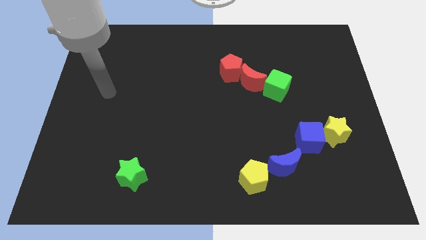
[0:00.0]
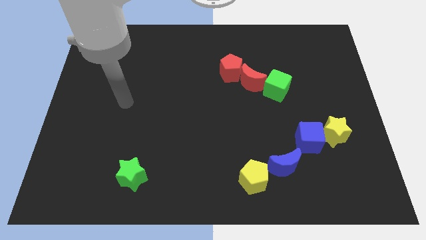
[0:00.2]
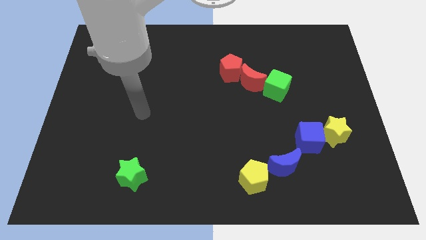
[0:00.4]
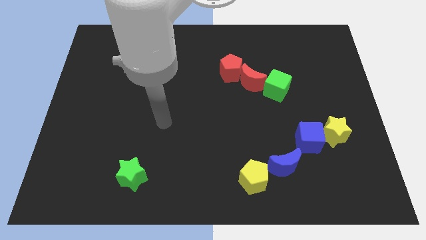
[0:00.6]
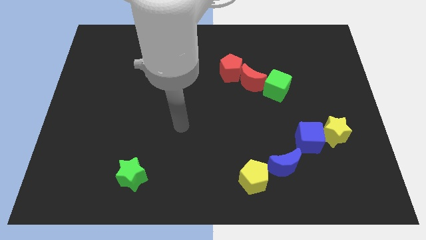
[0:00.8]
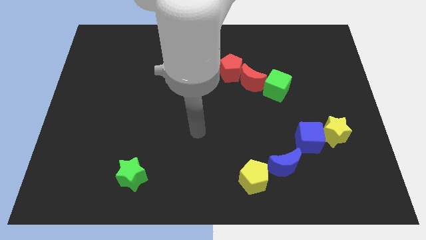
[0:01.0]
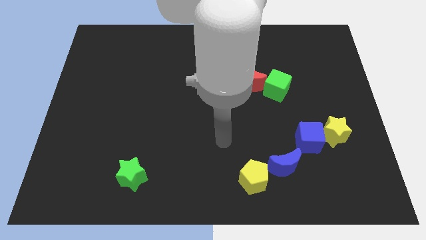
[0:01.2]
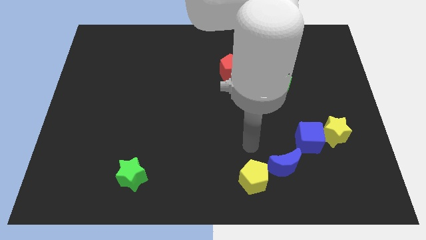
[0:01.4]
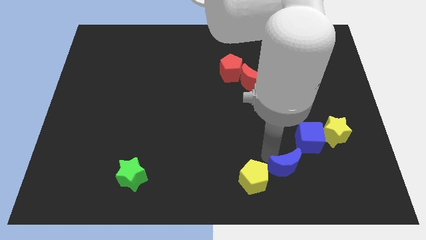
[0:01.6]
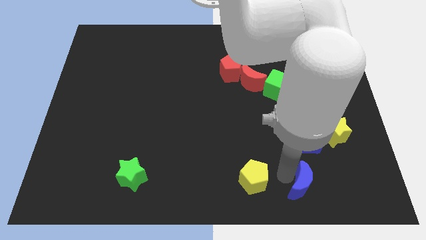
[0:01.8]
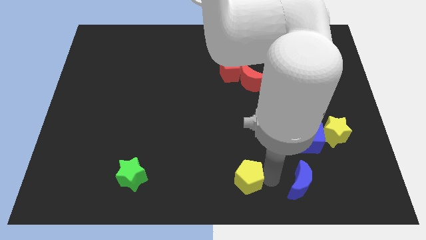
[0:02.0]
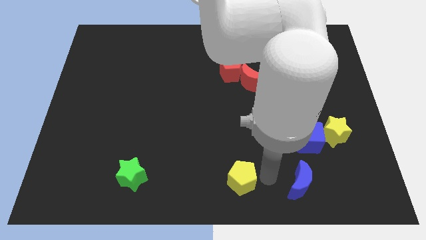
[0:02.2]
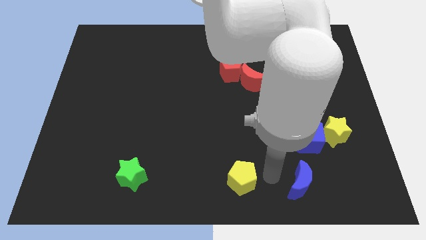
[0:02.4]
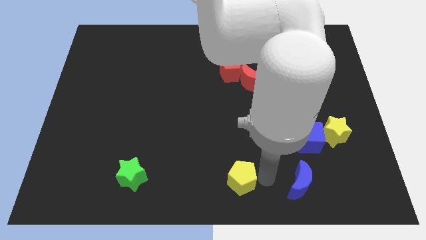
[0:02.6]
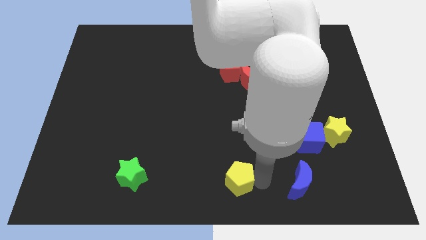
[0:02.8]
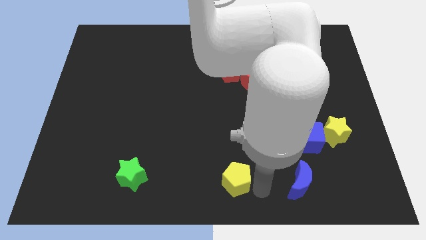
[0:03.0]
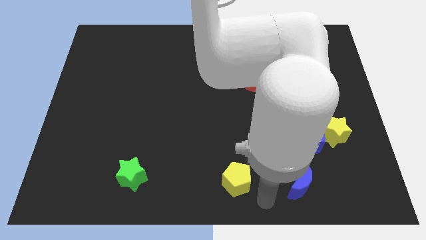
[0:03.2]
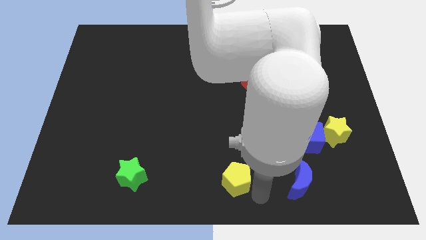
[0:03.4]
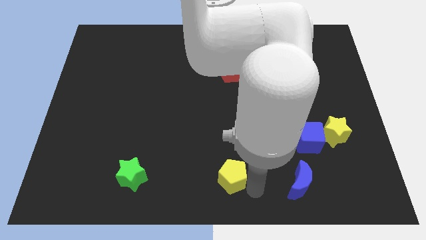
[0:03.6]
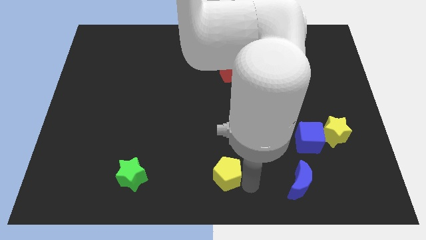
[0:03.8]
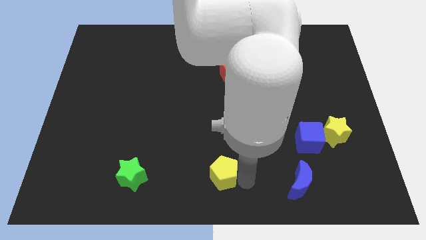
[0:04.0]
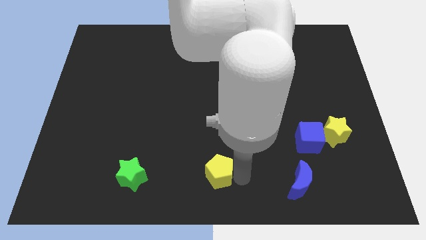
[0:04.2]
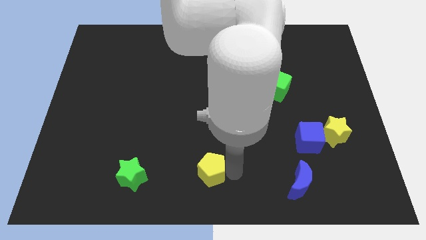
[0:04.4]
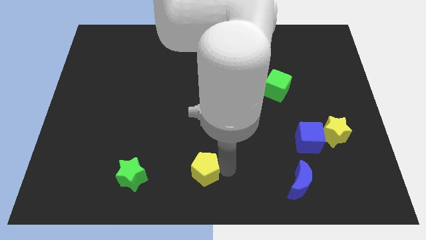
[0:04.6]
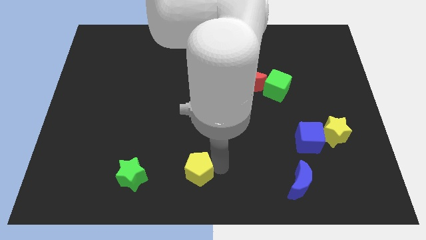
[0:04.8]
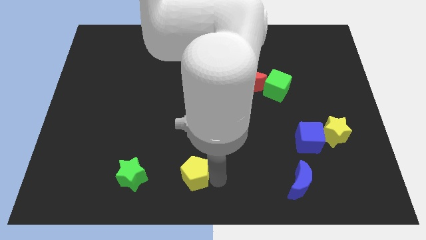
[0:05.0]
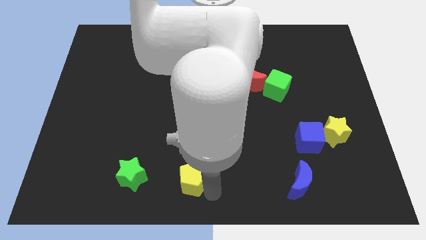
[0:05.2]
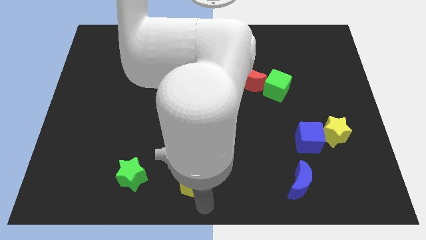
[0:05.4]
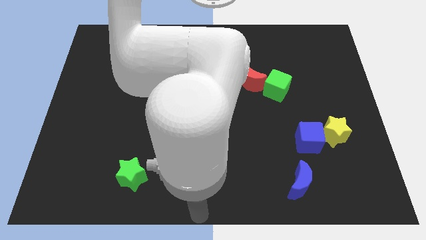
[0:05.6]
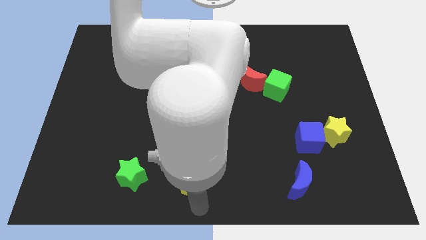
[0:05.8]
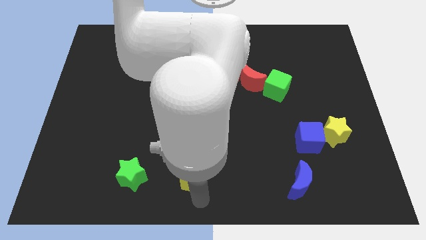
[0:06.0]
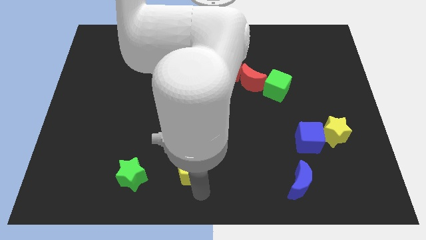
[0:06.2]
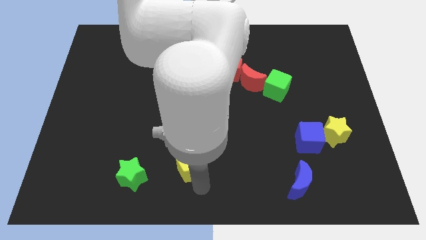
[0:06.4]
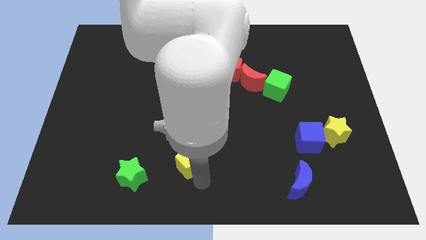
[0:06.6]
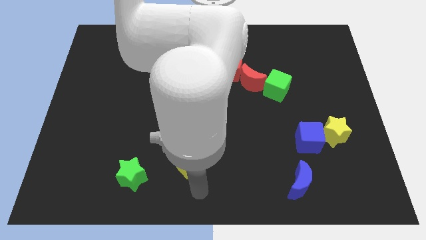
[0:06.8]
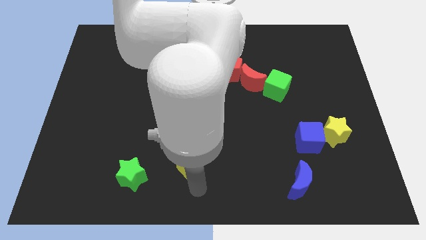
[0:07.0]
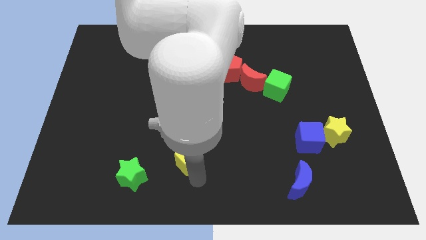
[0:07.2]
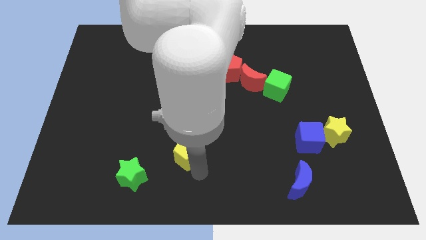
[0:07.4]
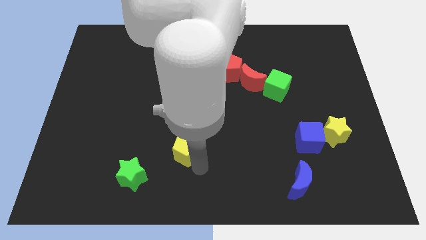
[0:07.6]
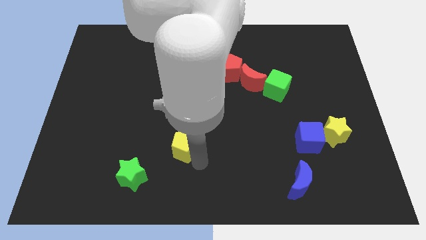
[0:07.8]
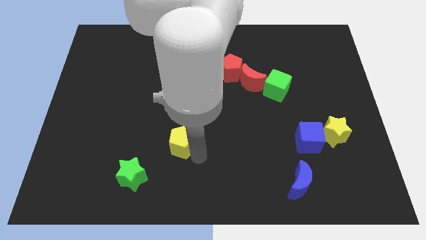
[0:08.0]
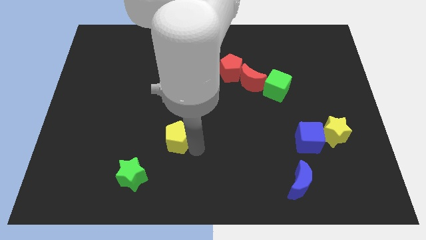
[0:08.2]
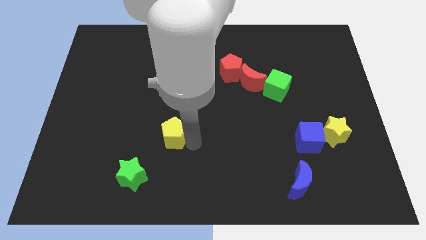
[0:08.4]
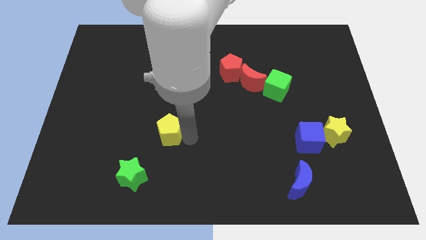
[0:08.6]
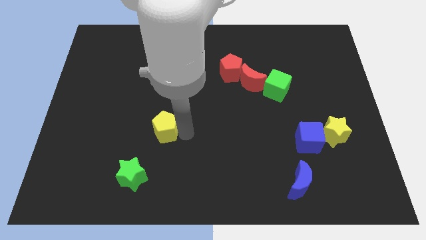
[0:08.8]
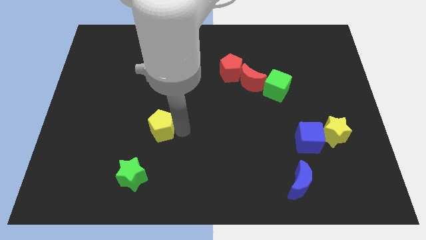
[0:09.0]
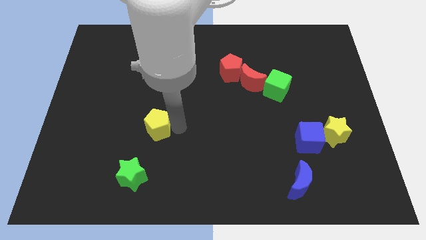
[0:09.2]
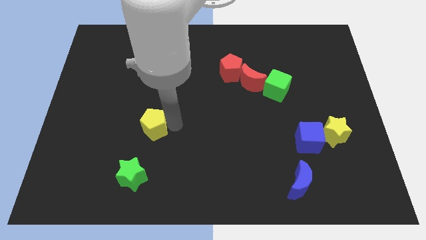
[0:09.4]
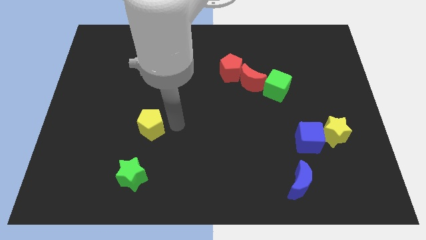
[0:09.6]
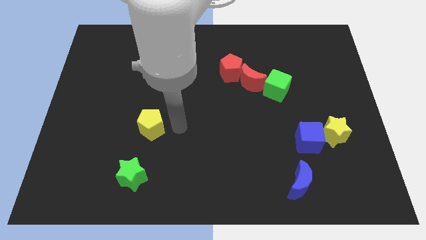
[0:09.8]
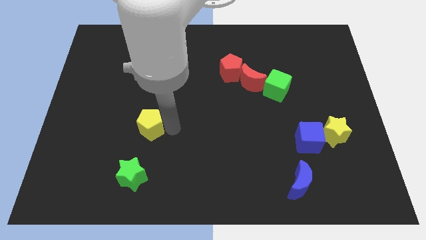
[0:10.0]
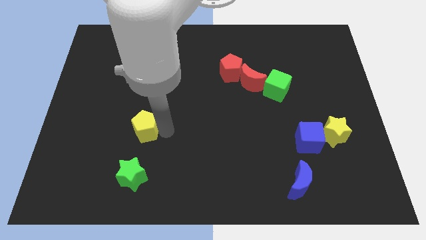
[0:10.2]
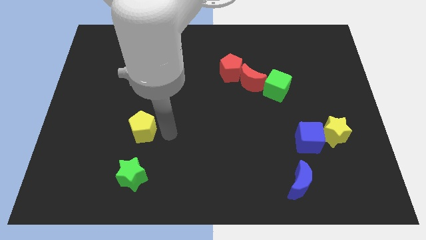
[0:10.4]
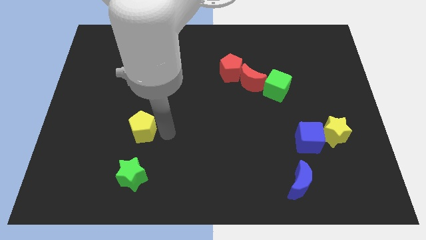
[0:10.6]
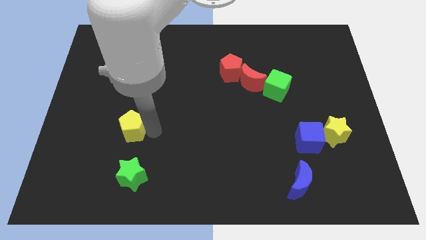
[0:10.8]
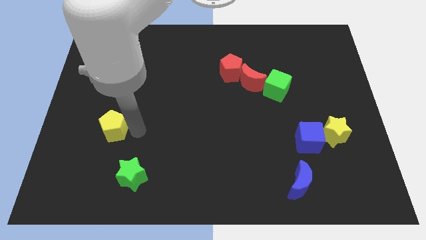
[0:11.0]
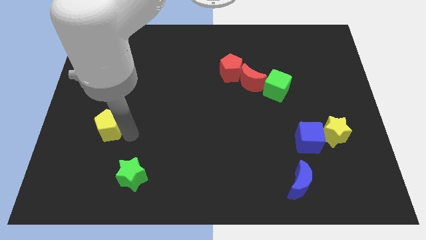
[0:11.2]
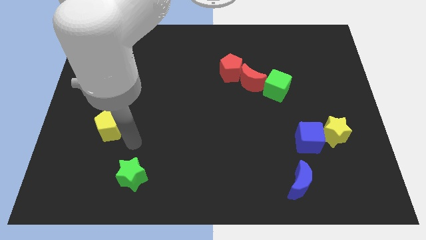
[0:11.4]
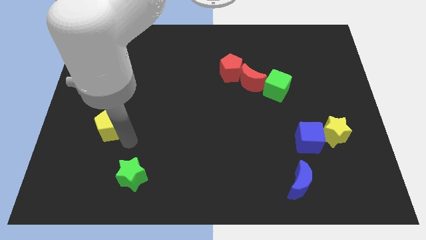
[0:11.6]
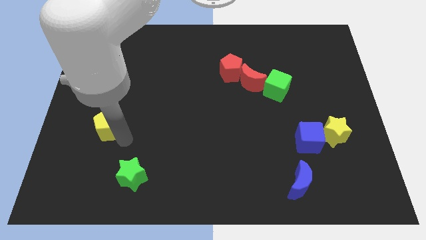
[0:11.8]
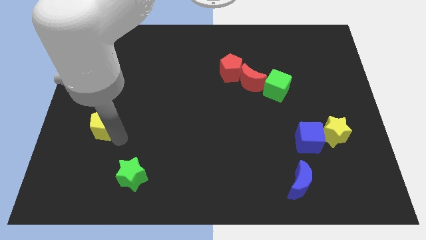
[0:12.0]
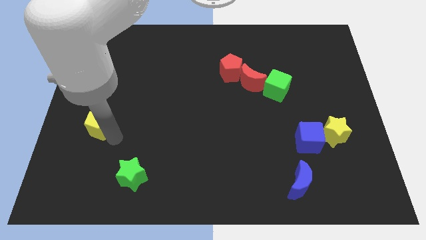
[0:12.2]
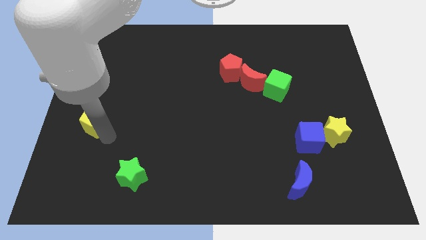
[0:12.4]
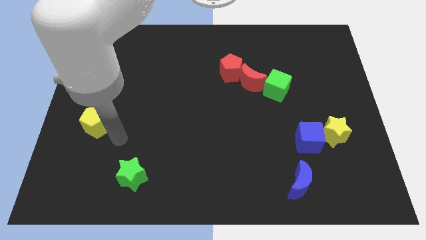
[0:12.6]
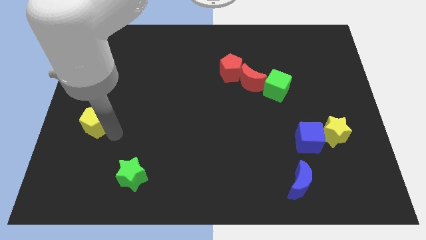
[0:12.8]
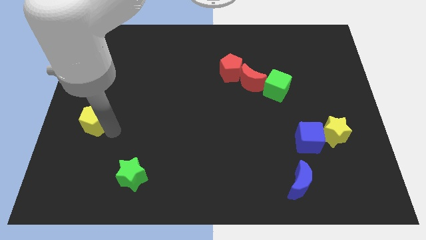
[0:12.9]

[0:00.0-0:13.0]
slide the yellow pentagon to the left side
